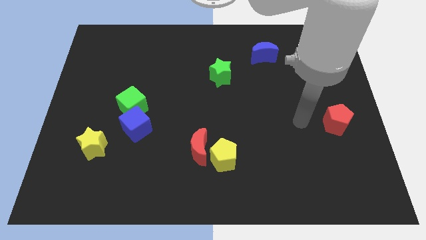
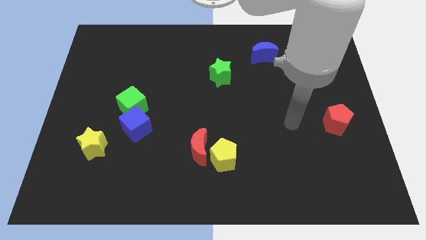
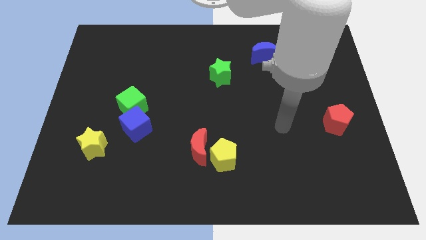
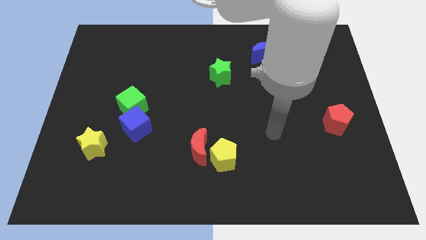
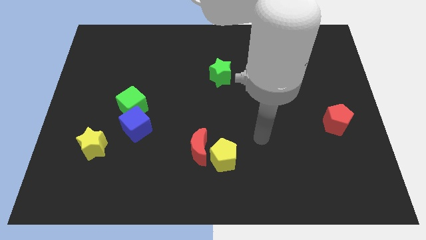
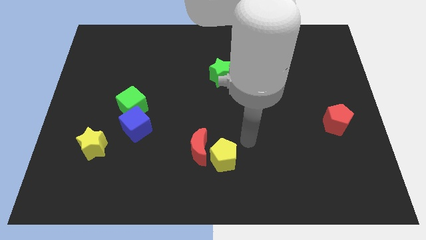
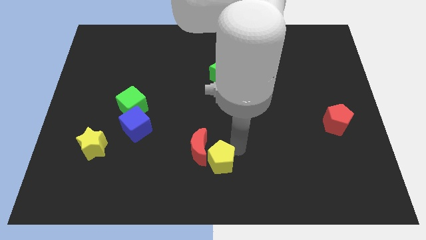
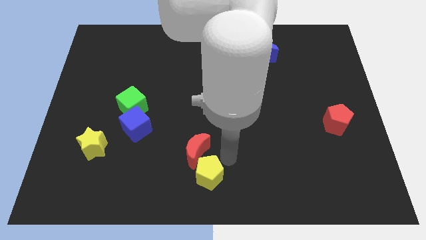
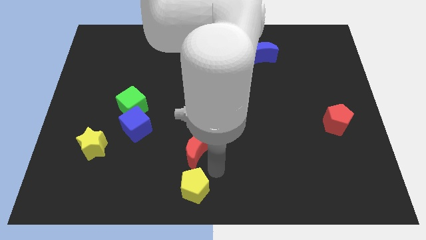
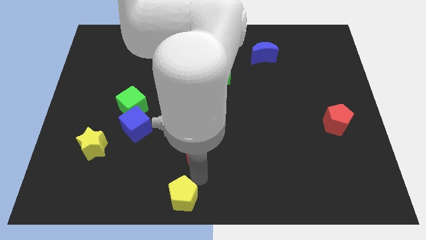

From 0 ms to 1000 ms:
pull the red moon apart from the yellow pentagon

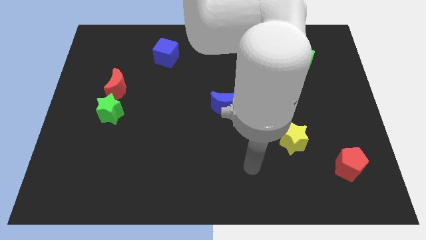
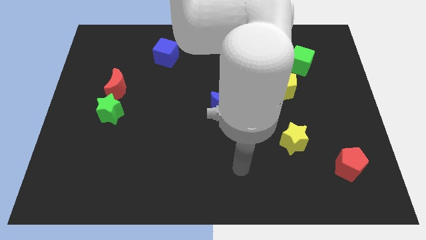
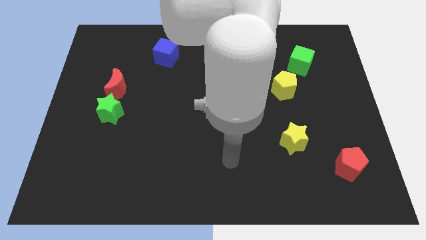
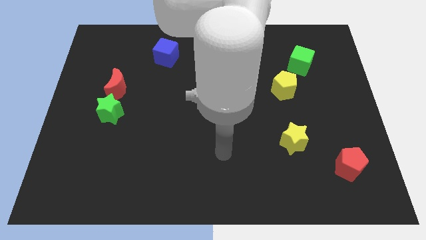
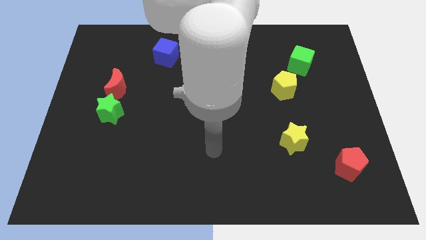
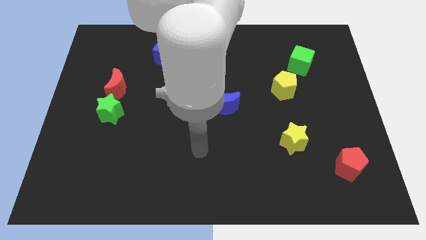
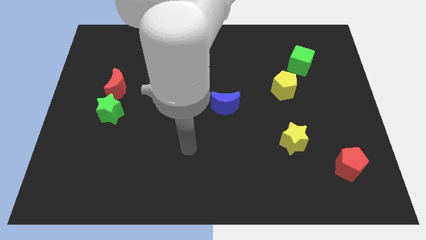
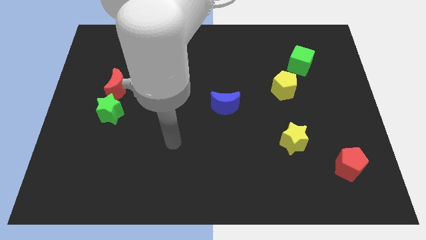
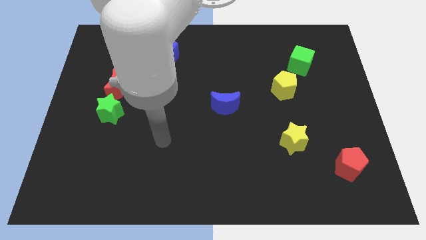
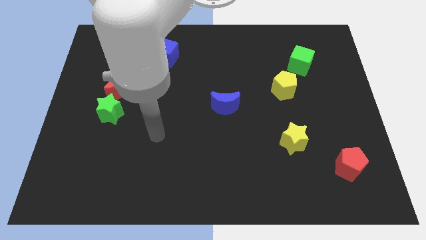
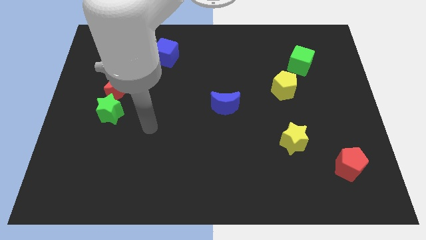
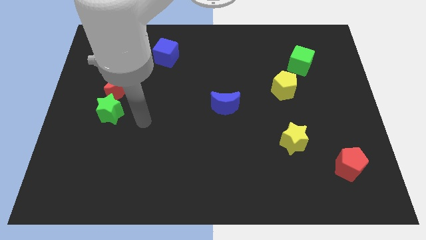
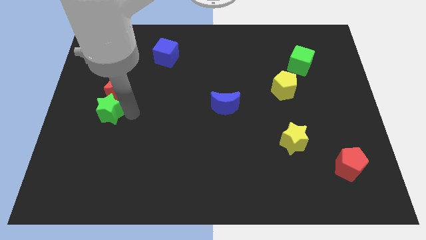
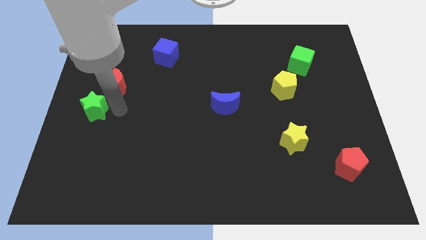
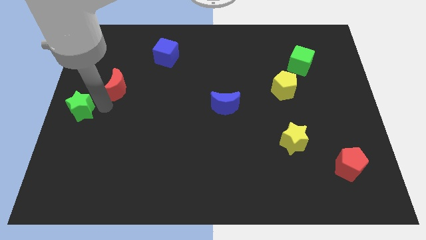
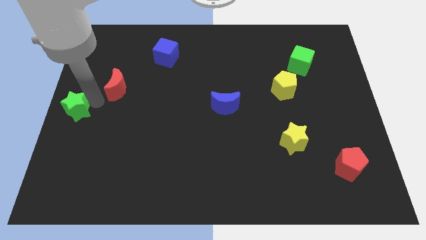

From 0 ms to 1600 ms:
move the red moon away from the green star

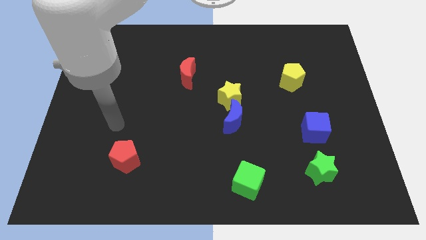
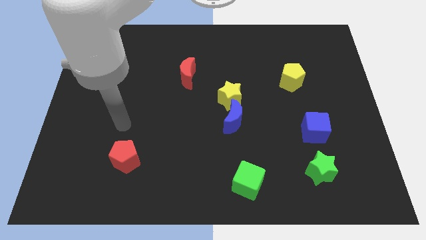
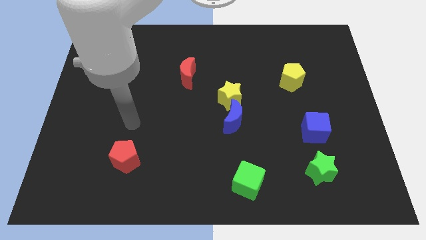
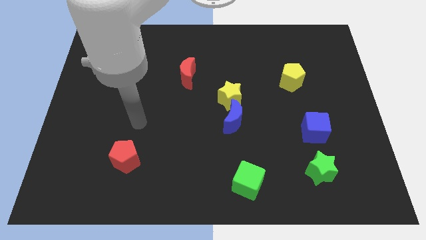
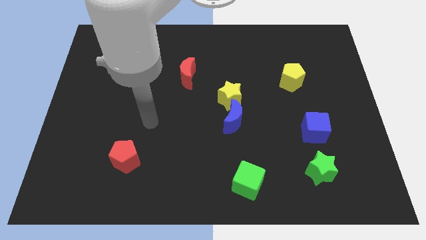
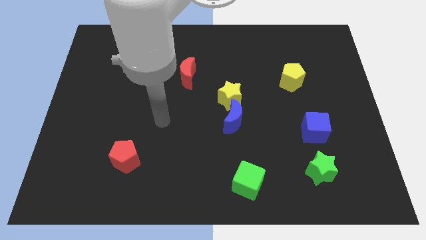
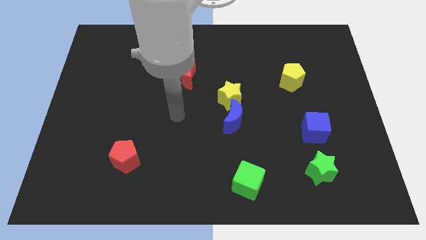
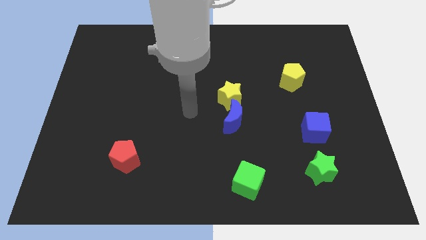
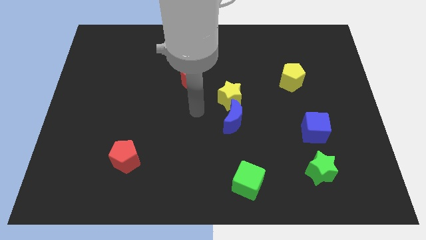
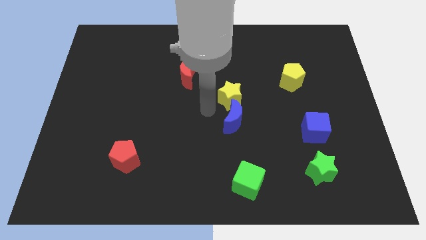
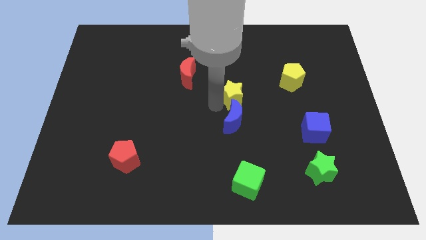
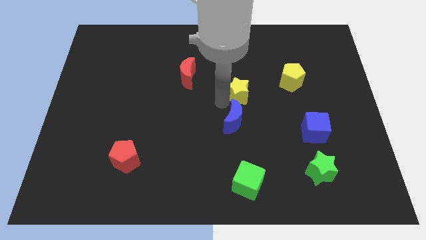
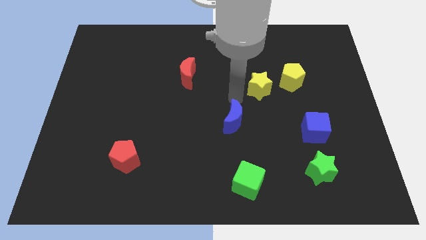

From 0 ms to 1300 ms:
separate the blue moon from the yellow star

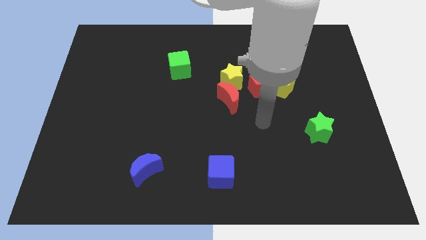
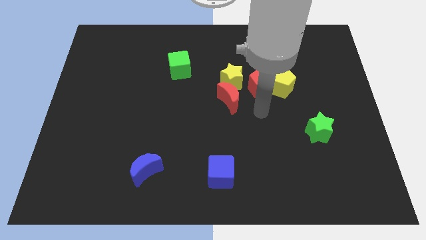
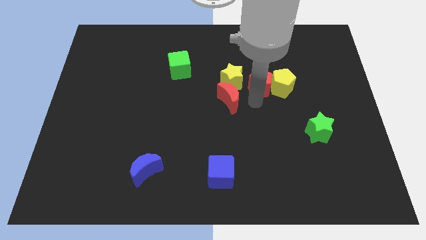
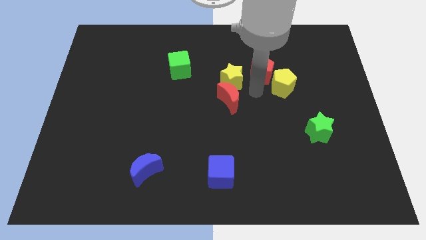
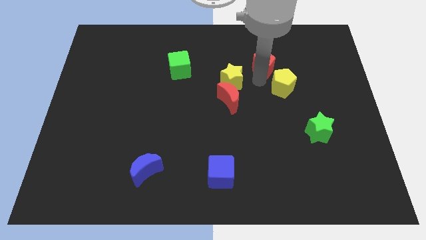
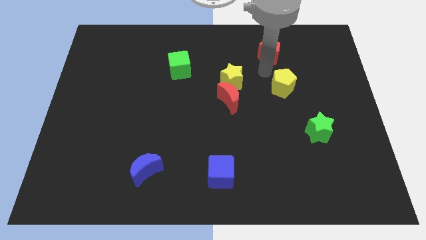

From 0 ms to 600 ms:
move the yellow pentagon away from the red pentagon

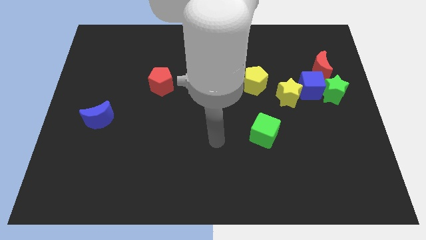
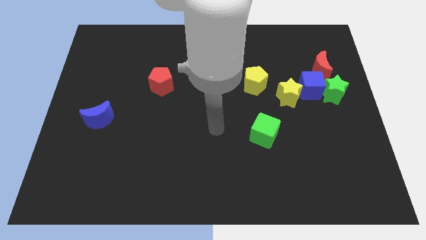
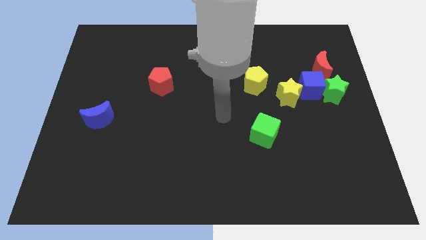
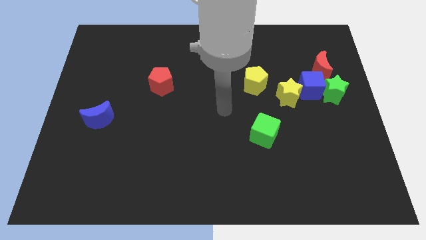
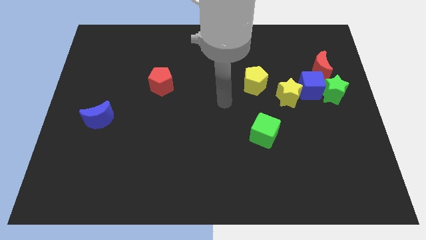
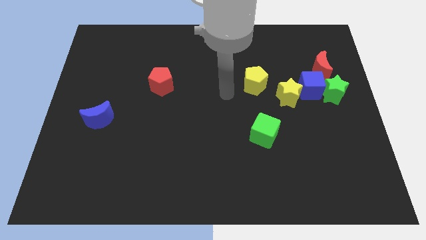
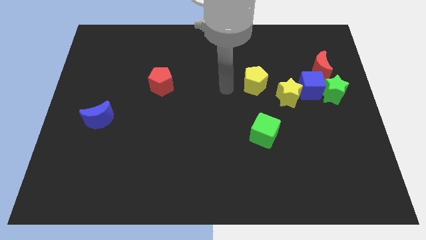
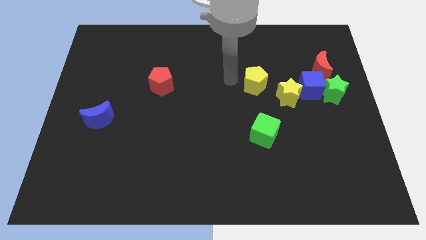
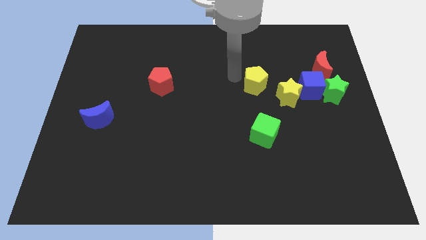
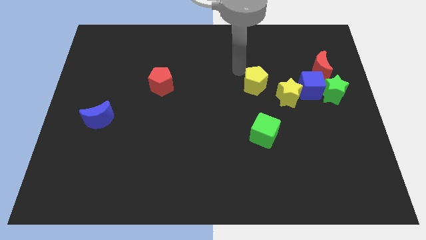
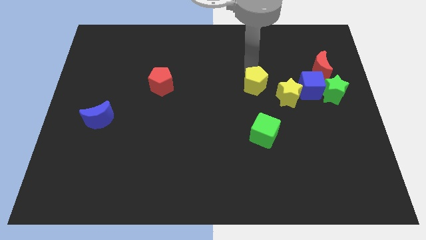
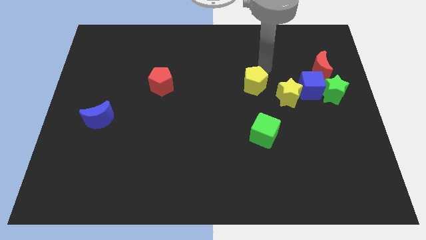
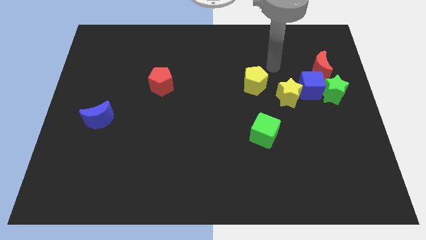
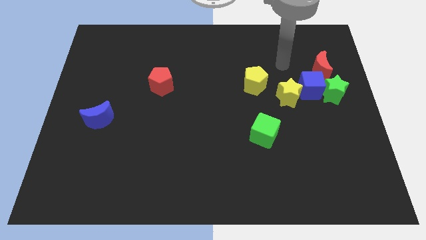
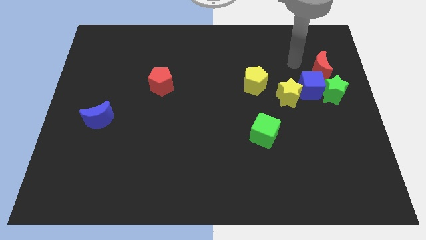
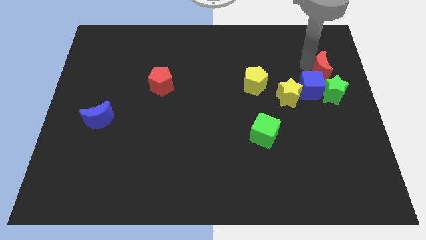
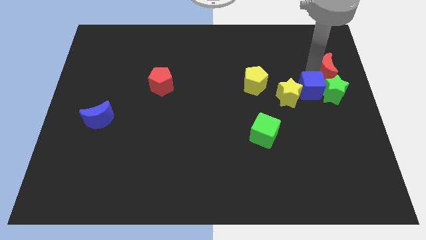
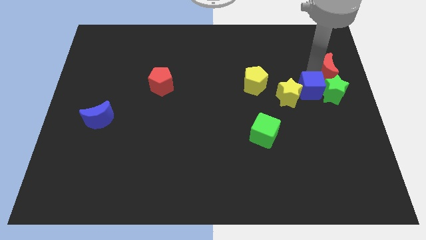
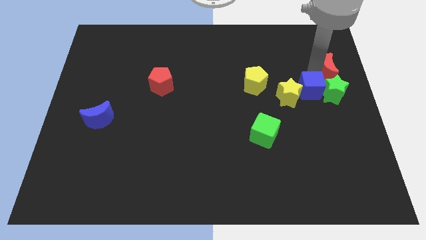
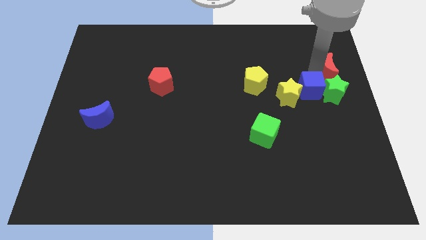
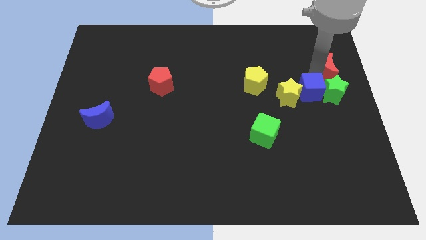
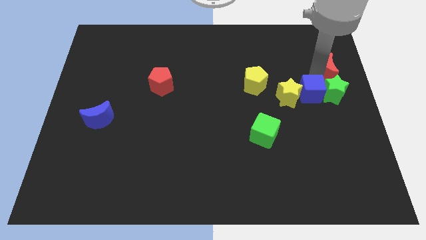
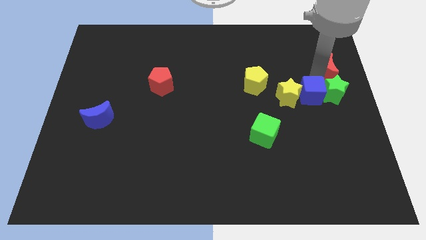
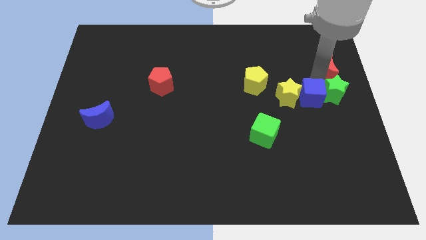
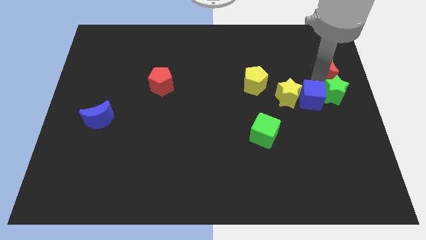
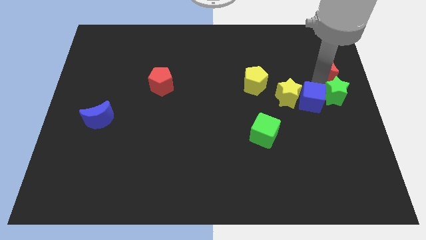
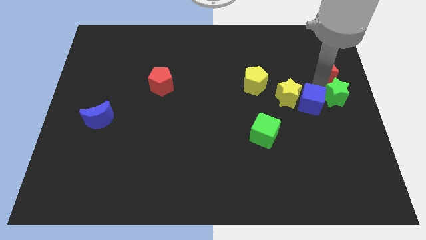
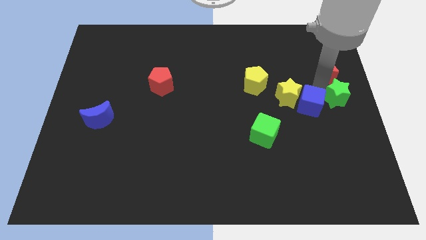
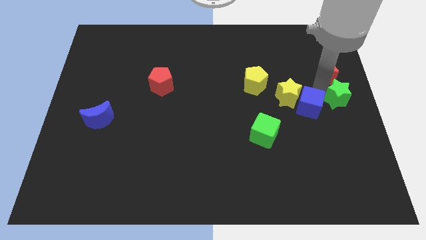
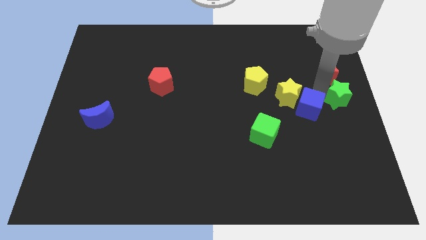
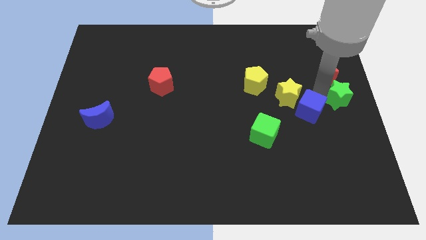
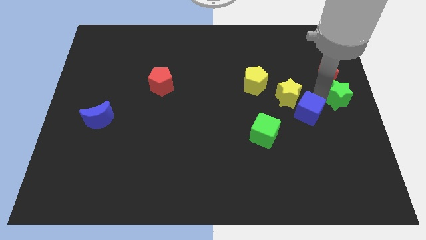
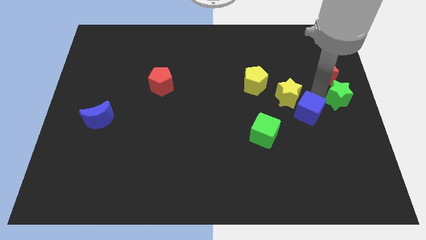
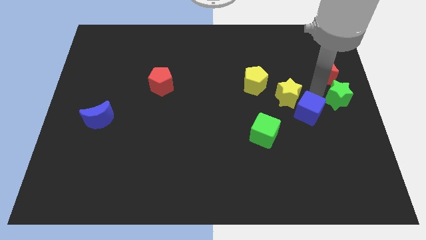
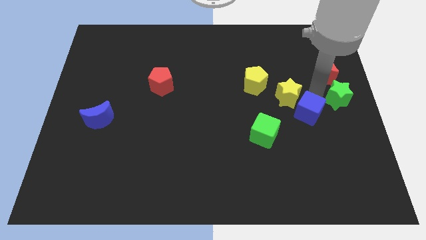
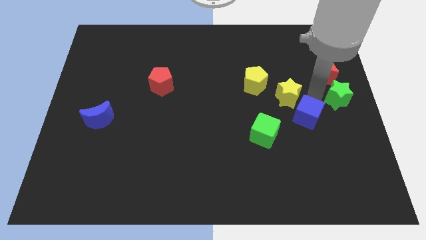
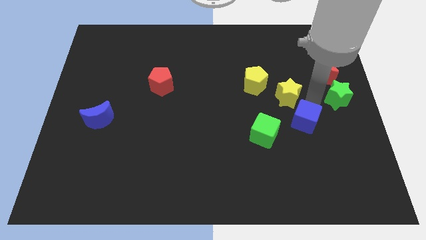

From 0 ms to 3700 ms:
pull the blue cube apart from the green star, yellow star, and red moon

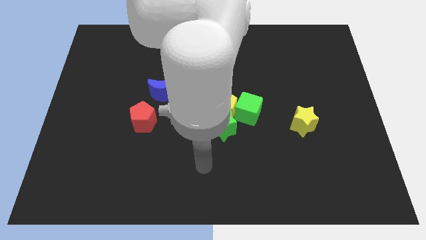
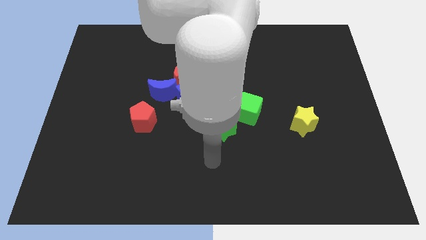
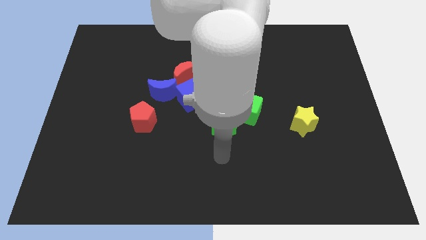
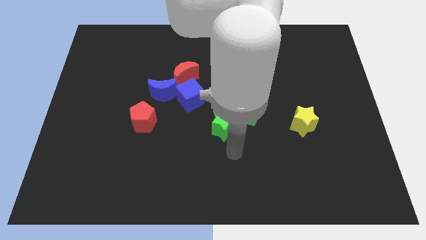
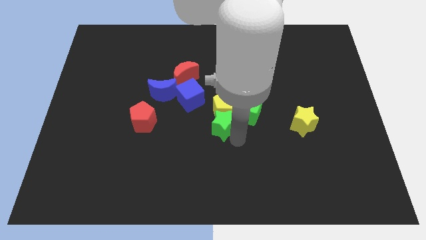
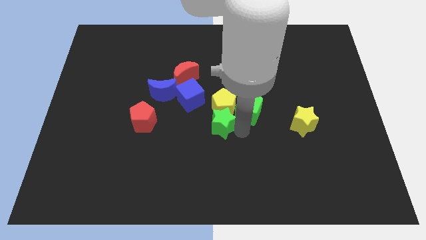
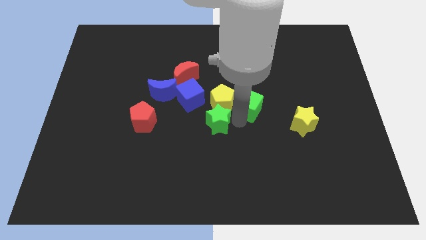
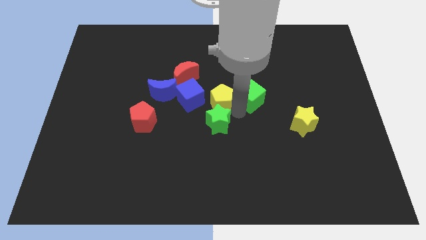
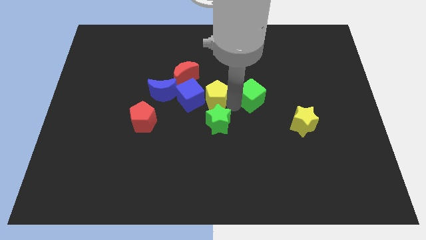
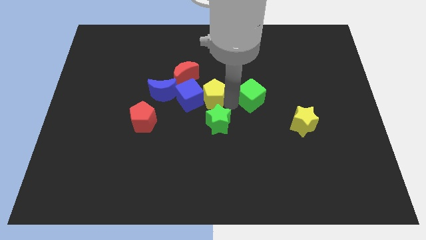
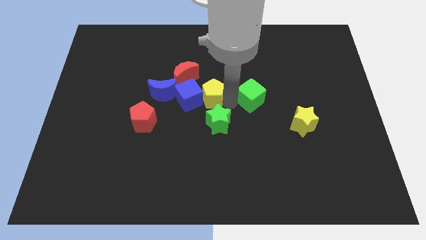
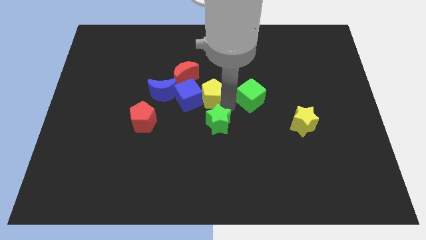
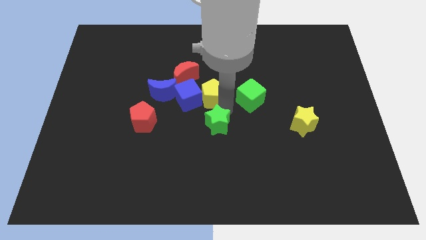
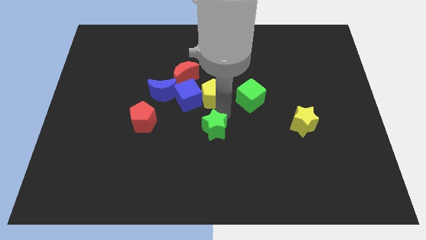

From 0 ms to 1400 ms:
separate the green star from the yellow pentagon and green cube
